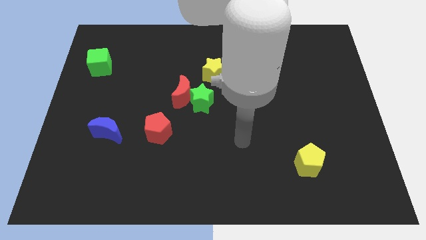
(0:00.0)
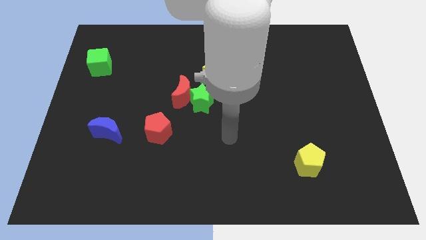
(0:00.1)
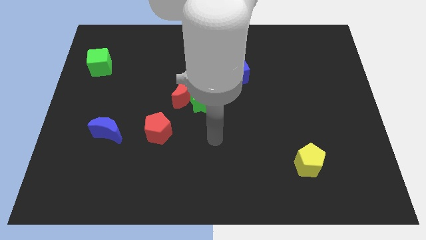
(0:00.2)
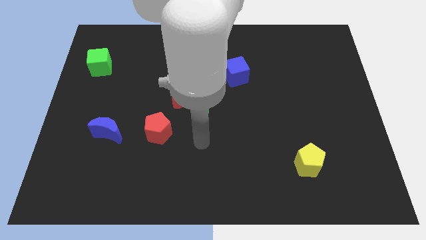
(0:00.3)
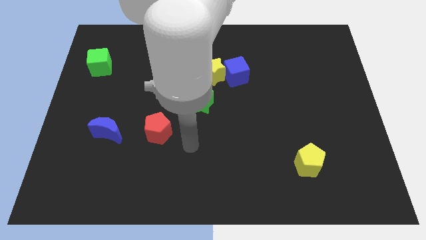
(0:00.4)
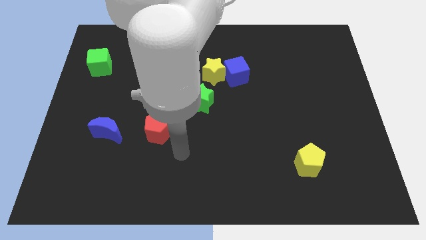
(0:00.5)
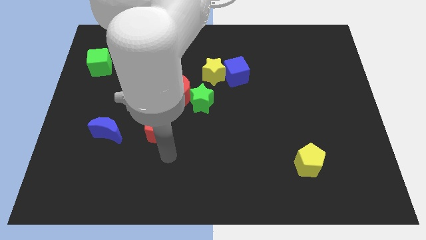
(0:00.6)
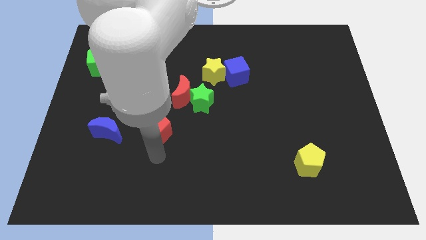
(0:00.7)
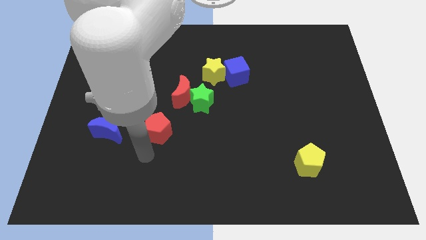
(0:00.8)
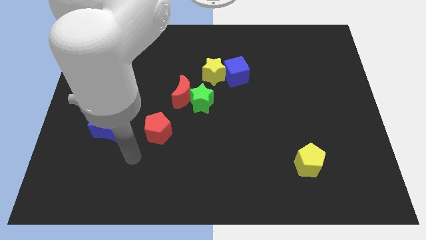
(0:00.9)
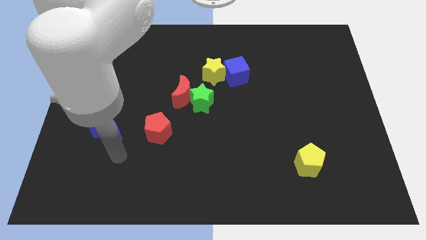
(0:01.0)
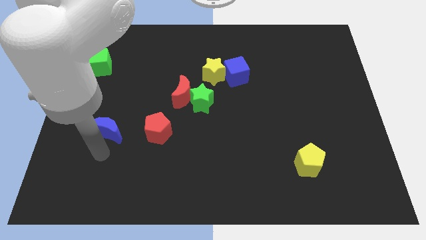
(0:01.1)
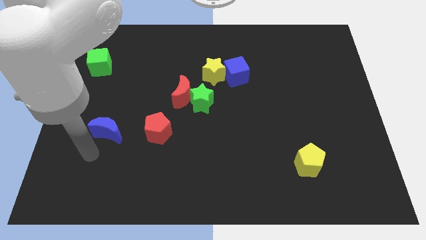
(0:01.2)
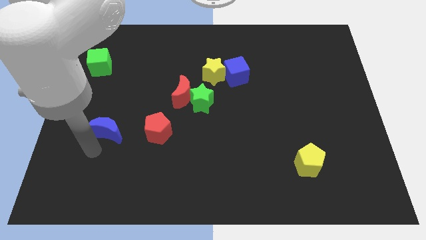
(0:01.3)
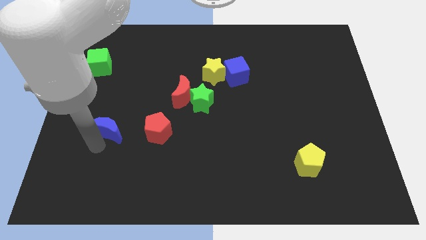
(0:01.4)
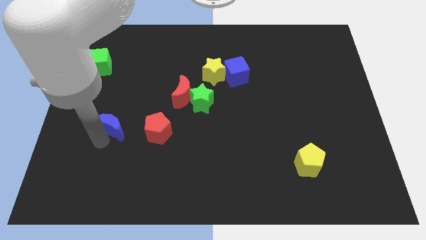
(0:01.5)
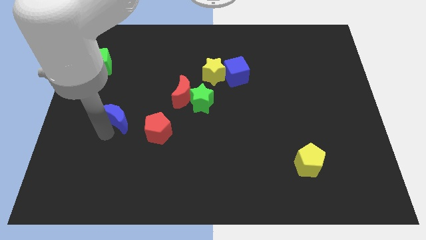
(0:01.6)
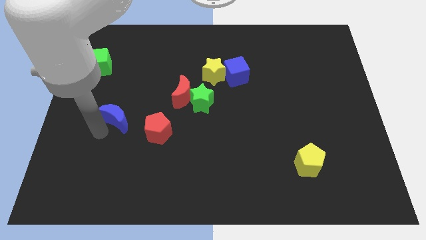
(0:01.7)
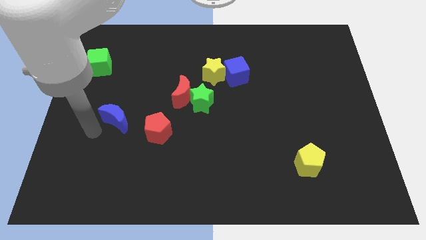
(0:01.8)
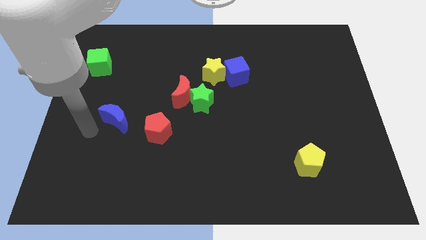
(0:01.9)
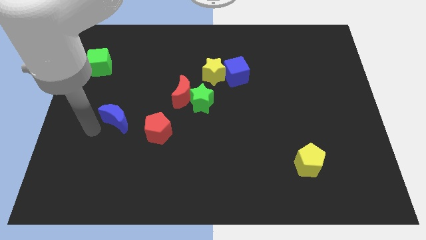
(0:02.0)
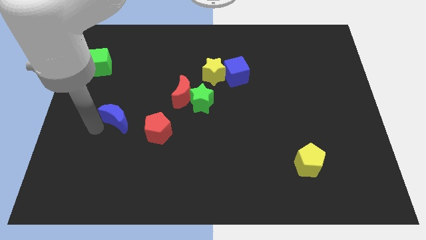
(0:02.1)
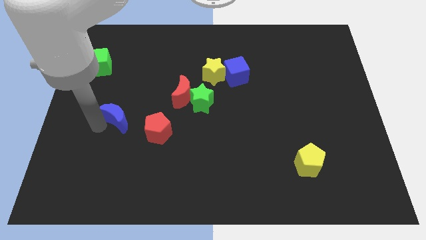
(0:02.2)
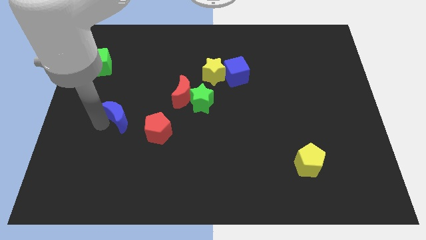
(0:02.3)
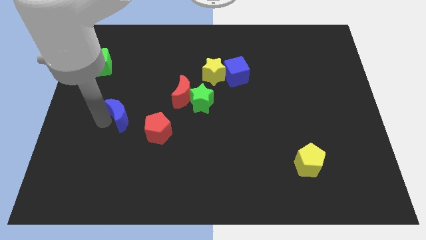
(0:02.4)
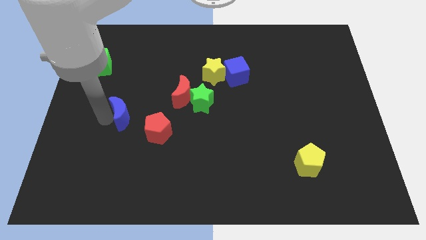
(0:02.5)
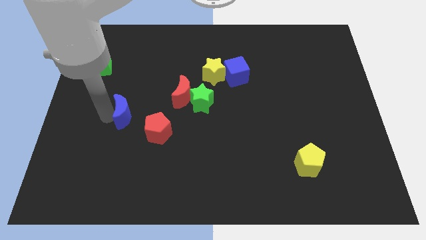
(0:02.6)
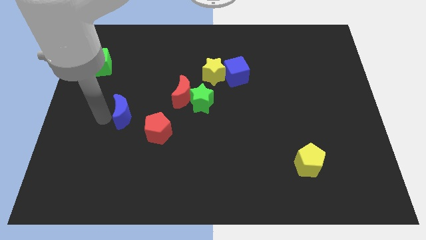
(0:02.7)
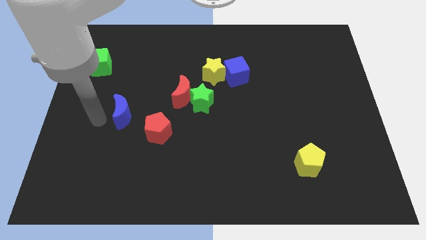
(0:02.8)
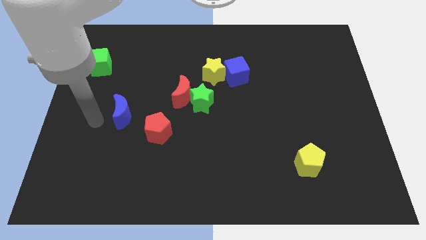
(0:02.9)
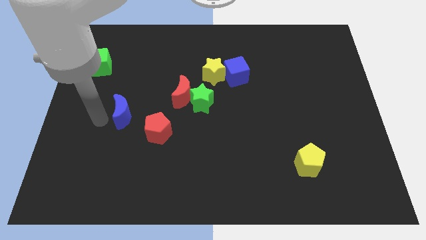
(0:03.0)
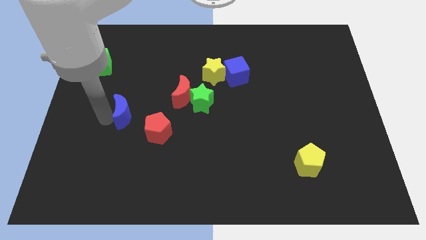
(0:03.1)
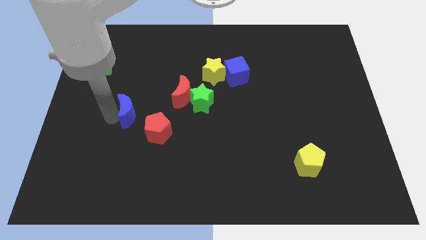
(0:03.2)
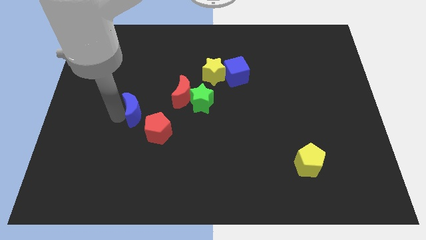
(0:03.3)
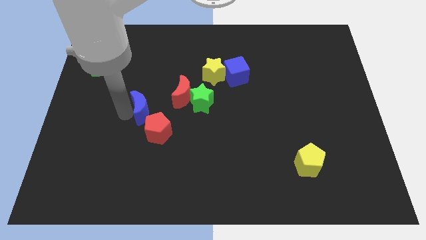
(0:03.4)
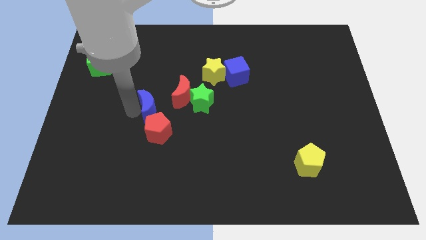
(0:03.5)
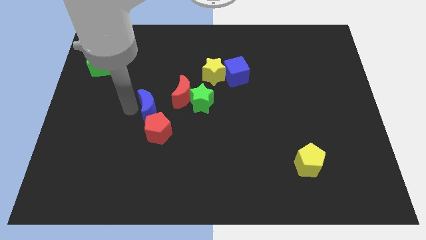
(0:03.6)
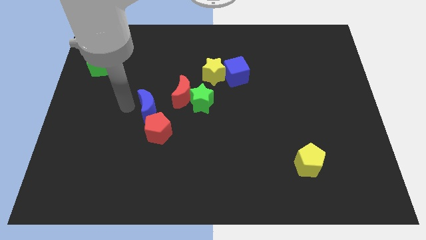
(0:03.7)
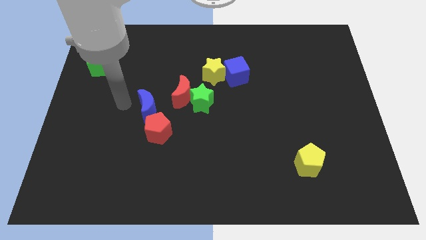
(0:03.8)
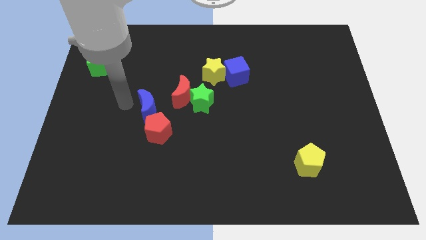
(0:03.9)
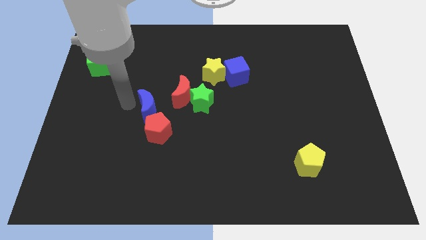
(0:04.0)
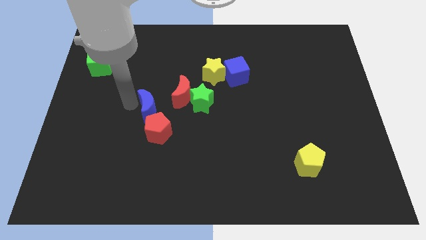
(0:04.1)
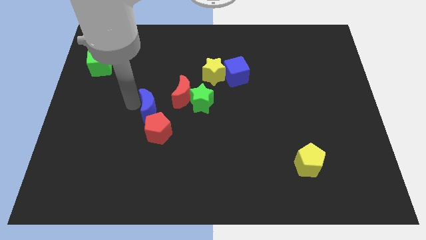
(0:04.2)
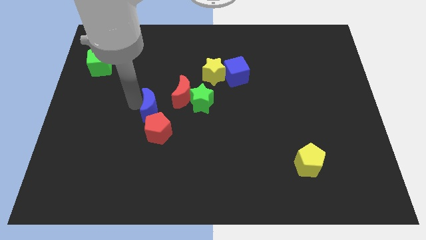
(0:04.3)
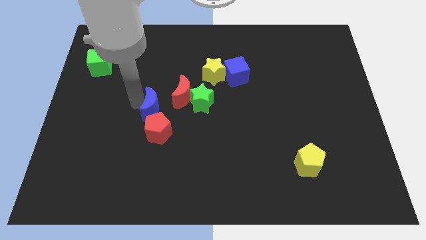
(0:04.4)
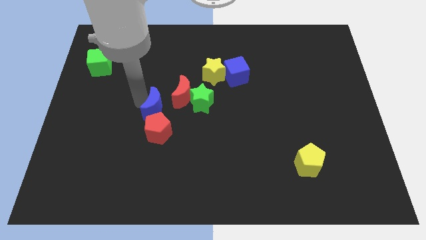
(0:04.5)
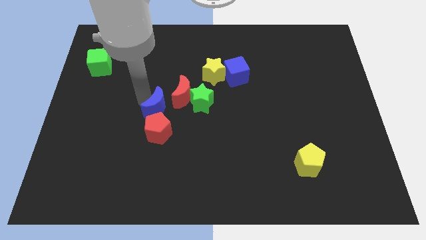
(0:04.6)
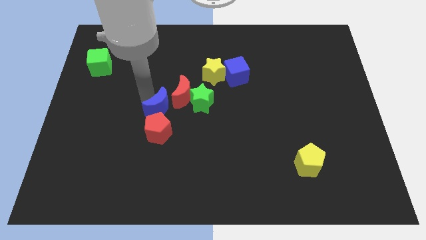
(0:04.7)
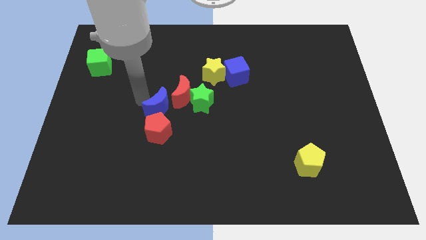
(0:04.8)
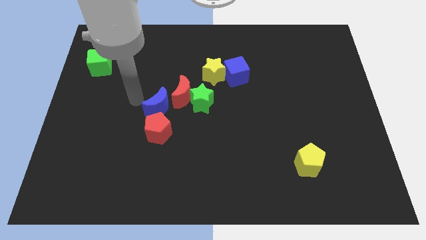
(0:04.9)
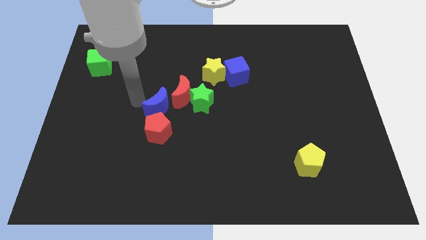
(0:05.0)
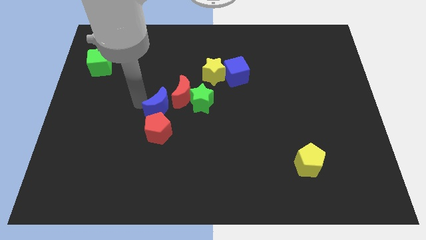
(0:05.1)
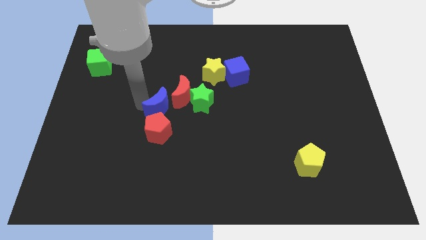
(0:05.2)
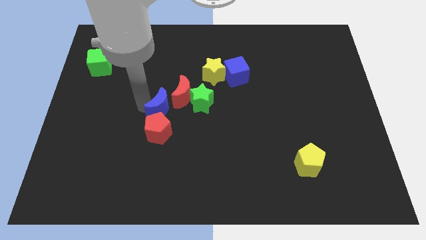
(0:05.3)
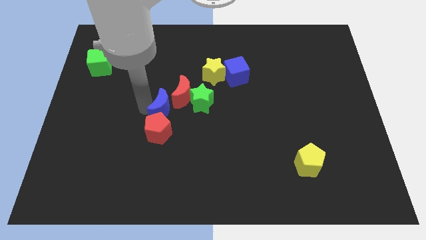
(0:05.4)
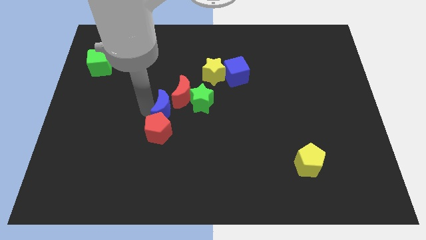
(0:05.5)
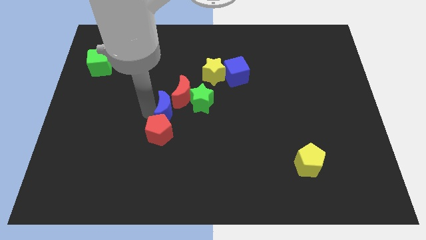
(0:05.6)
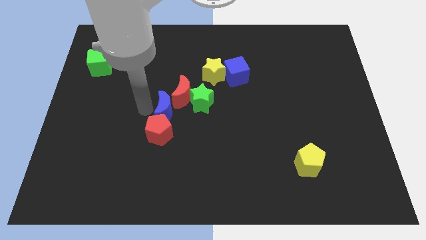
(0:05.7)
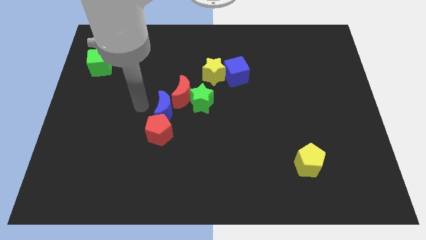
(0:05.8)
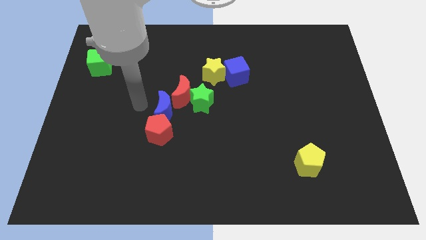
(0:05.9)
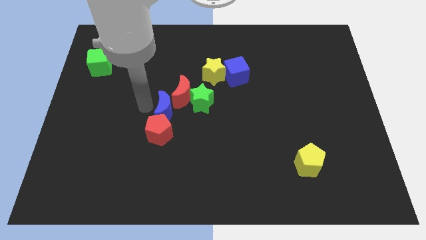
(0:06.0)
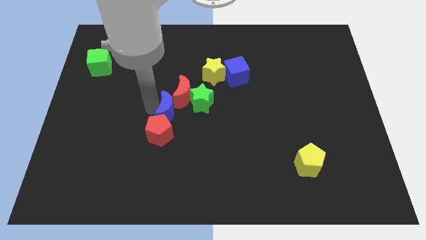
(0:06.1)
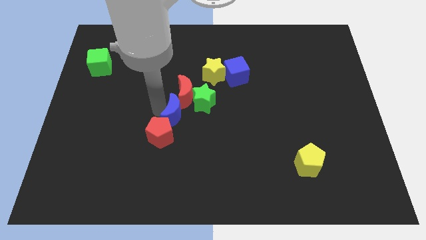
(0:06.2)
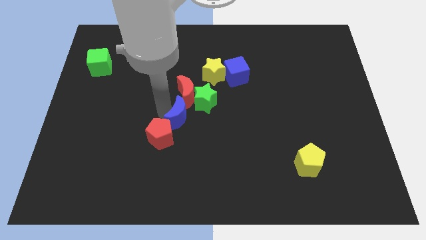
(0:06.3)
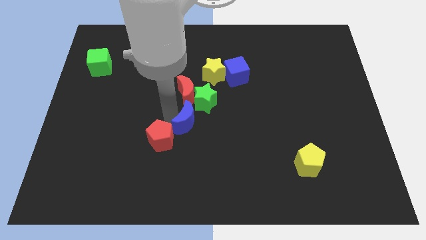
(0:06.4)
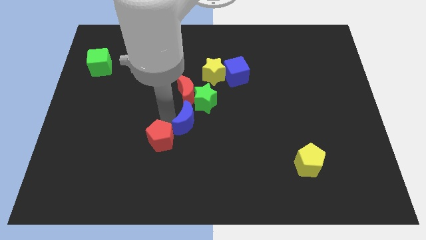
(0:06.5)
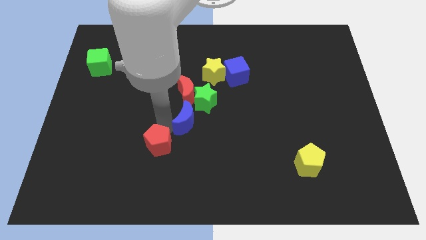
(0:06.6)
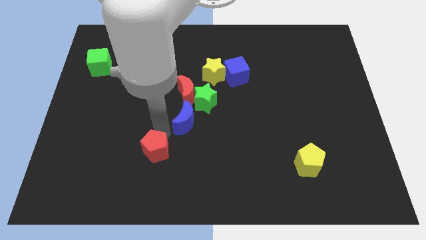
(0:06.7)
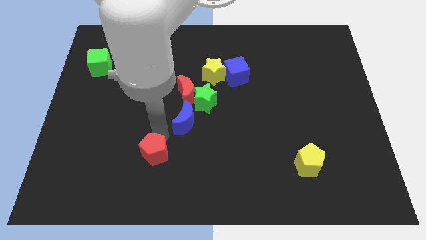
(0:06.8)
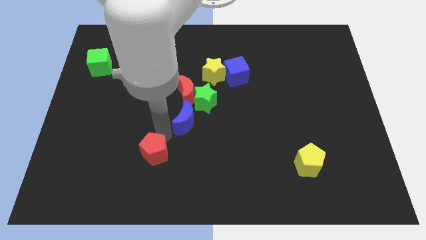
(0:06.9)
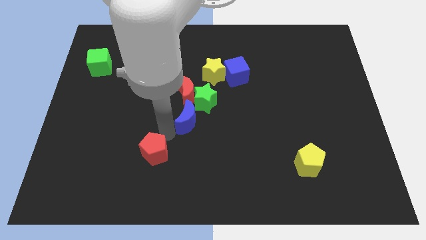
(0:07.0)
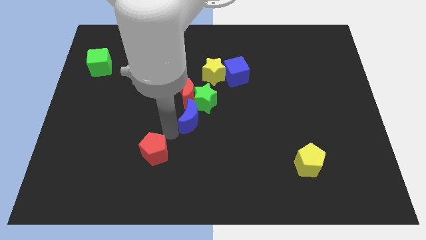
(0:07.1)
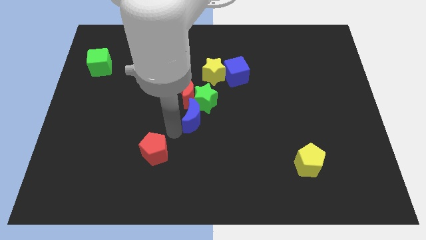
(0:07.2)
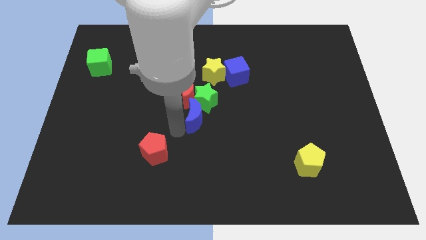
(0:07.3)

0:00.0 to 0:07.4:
push the blue moon to the bottom side of the yellow star
